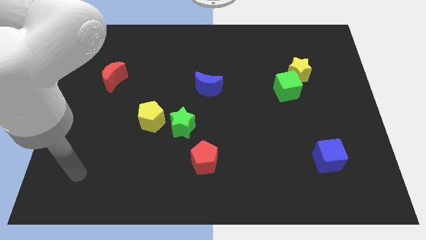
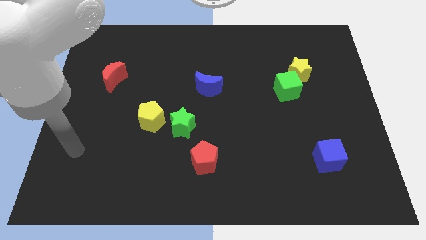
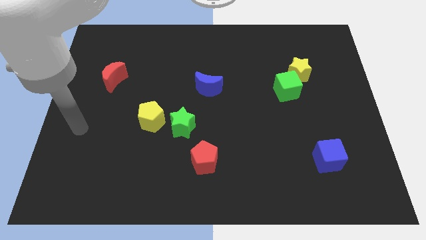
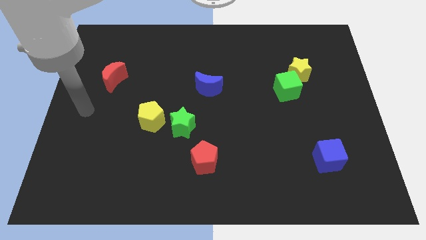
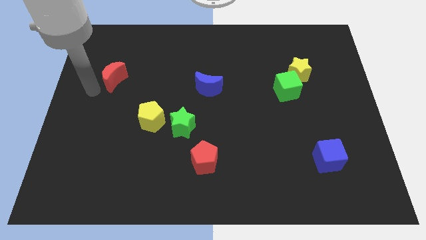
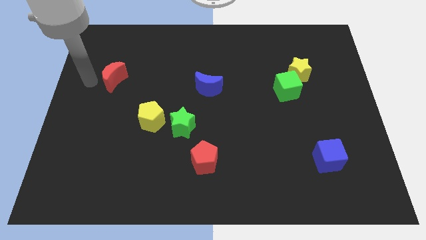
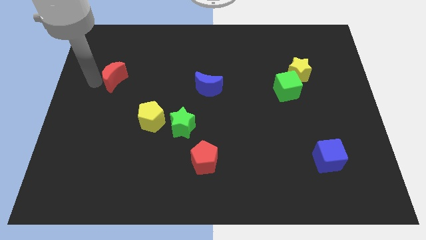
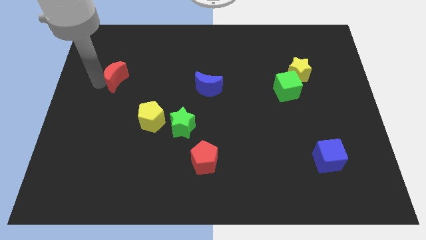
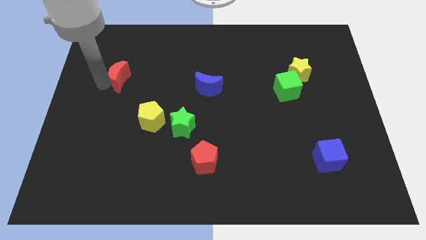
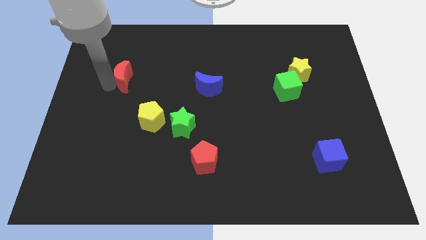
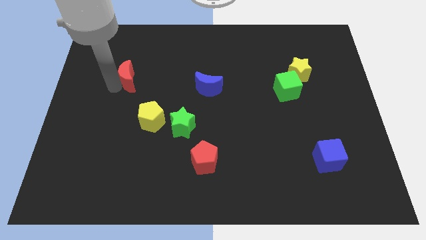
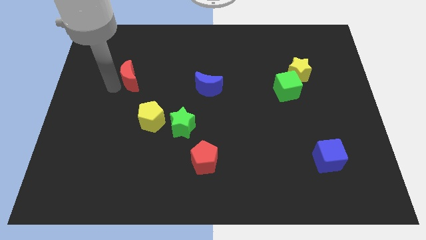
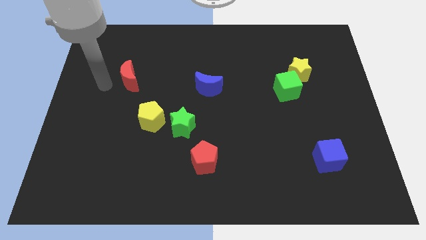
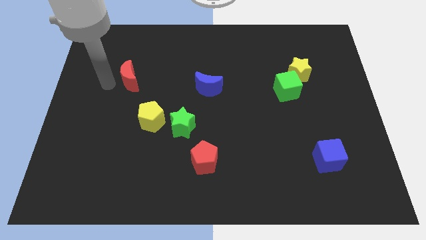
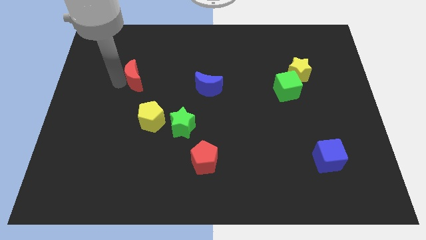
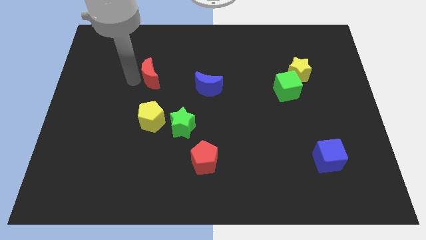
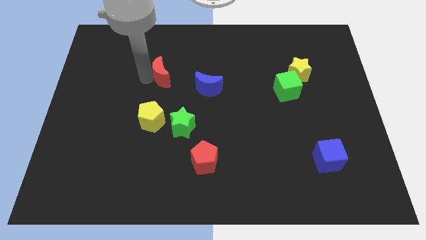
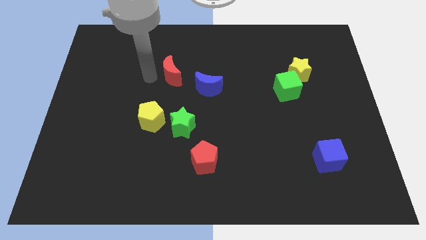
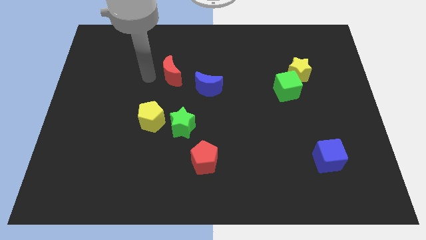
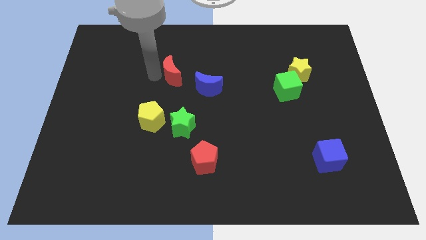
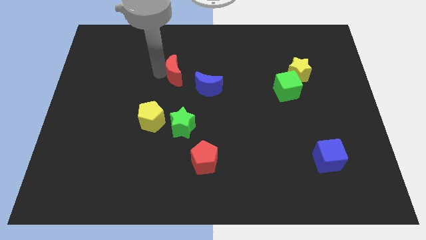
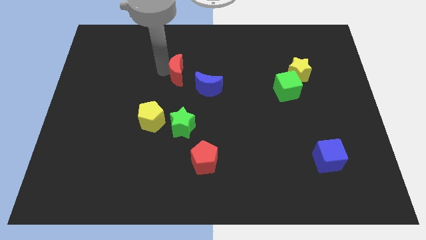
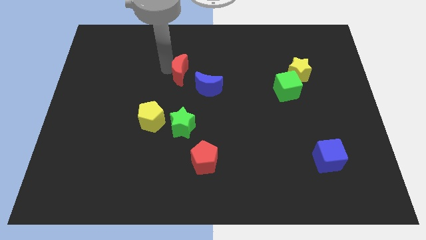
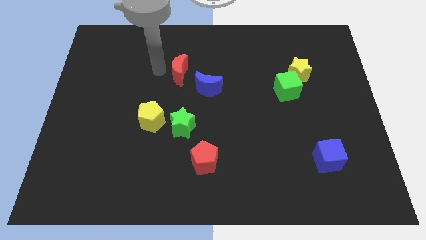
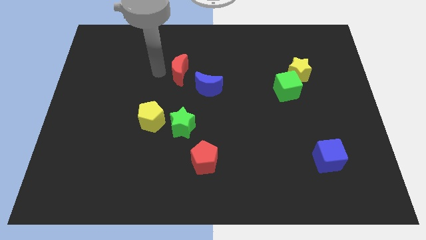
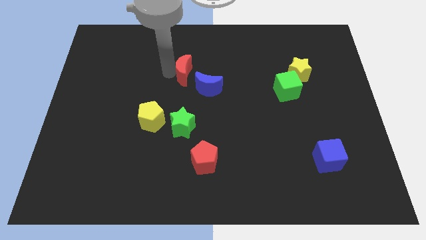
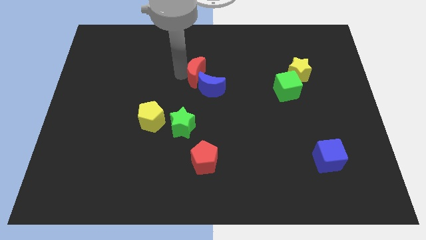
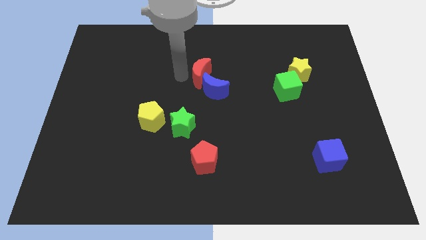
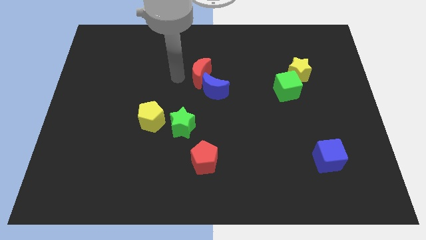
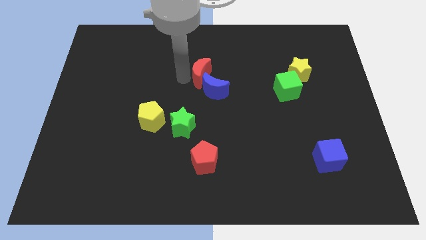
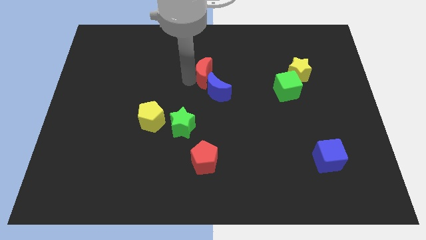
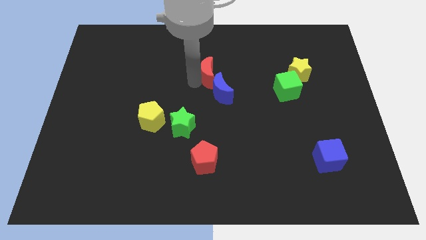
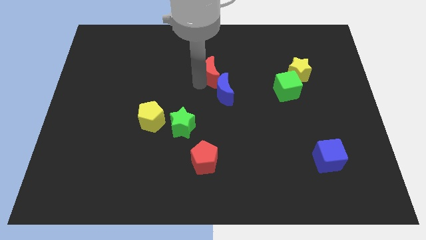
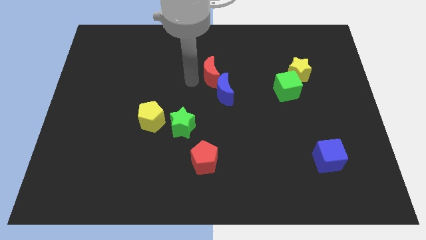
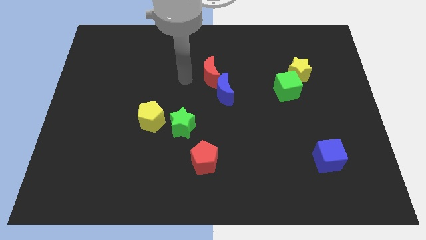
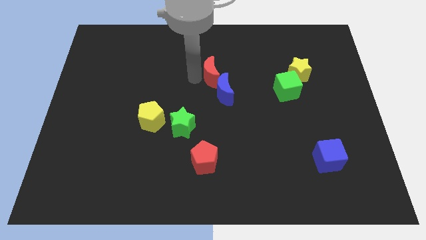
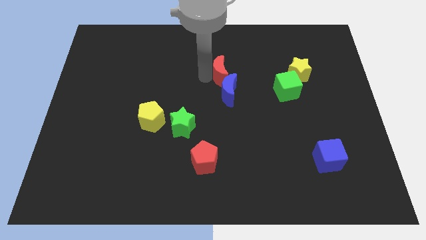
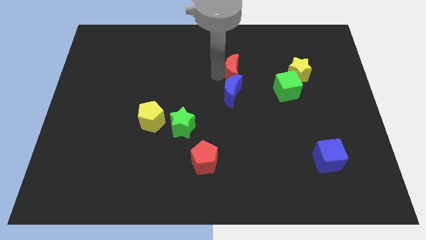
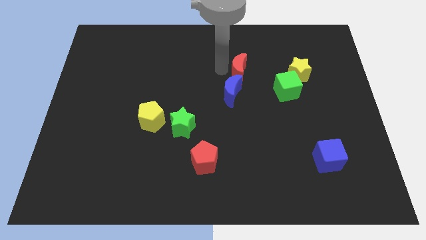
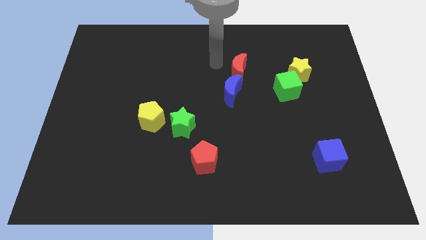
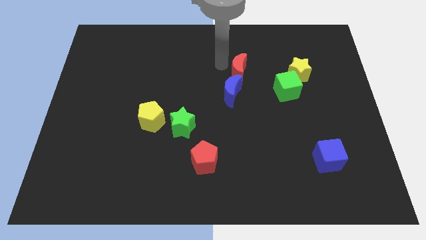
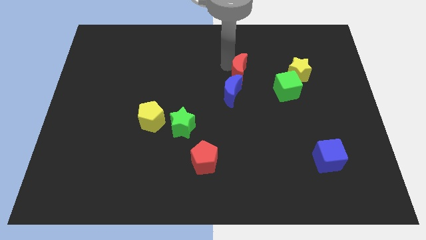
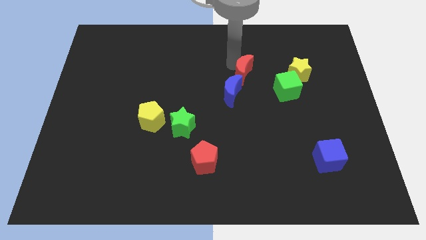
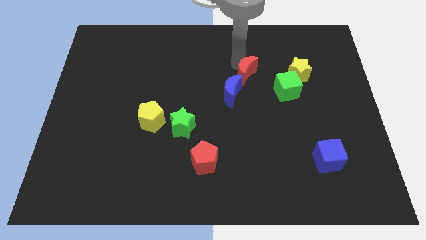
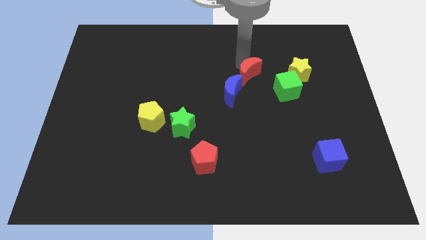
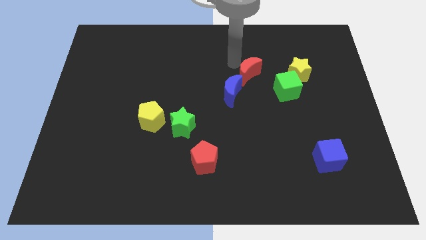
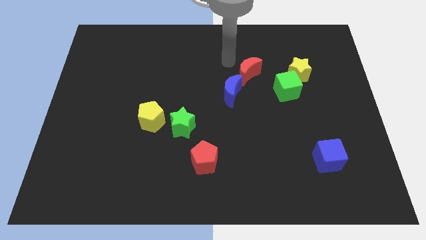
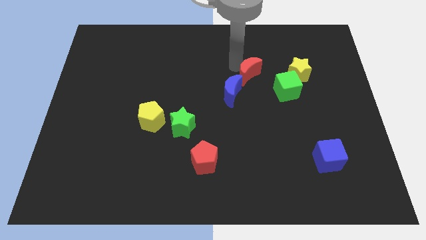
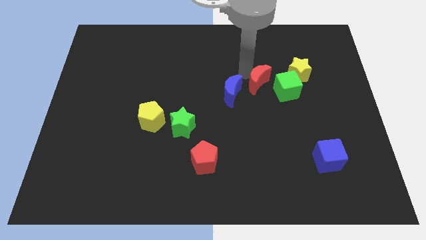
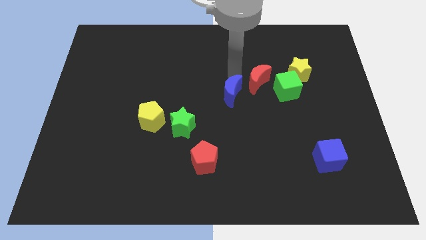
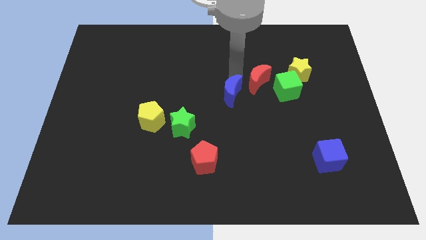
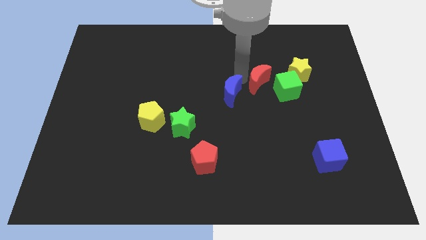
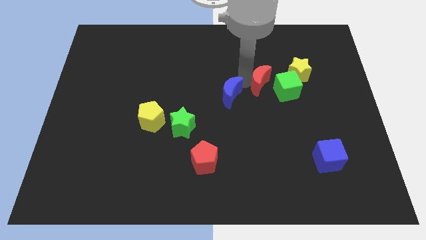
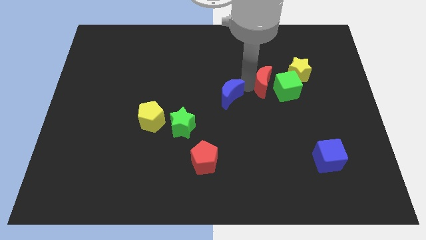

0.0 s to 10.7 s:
slide the red moon next to the green cube

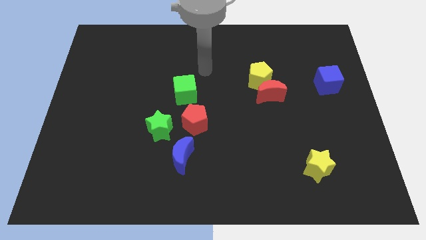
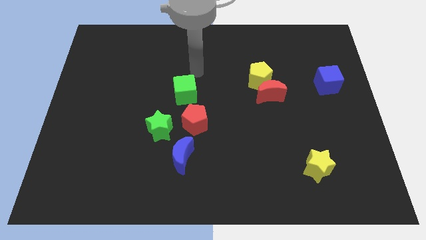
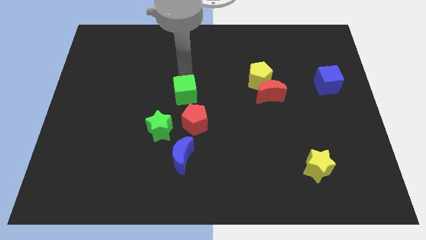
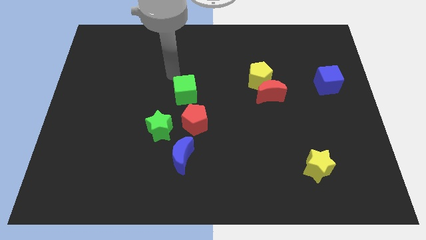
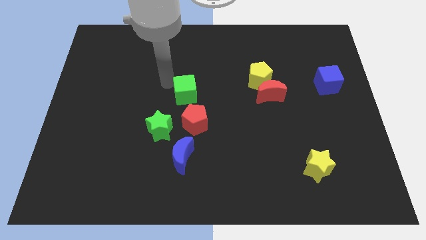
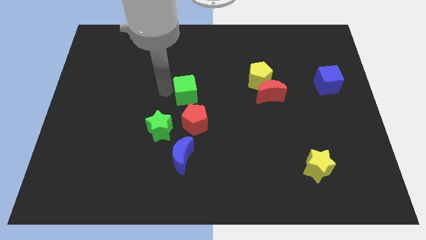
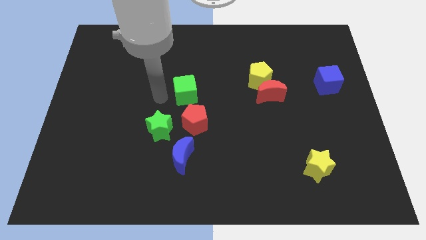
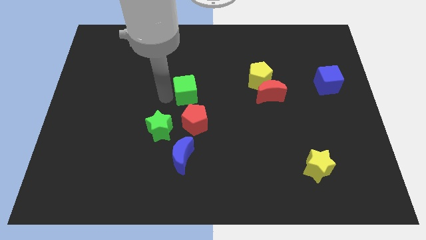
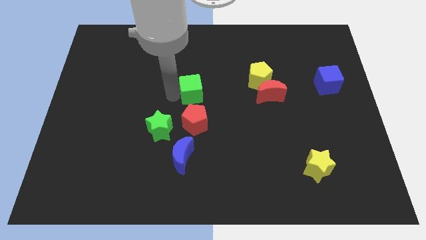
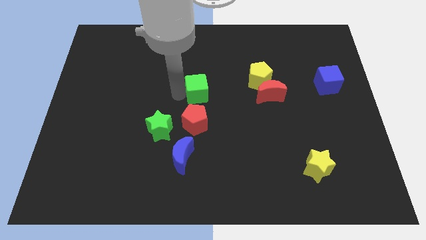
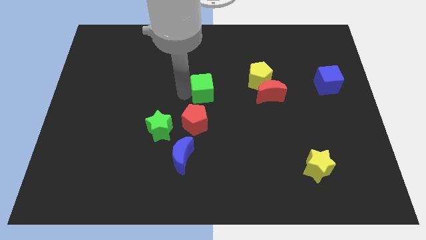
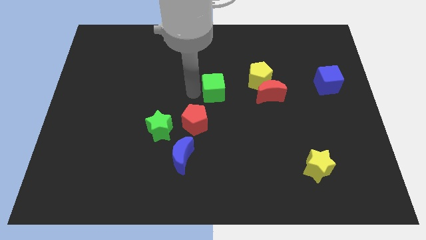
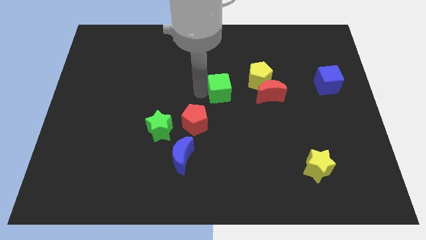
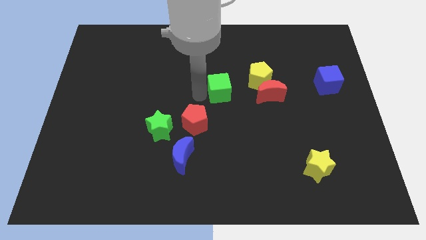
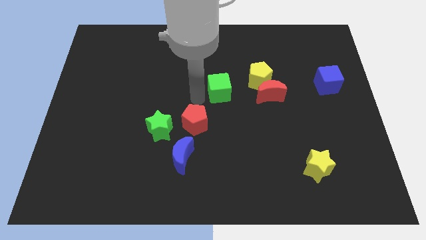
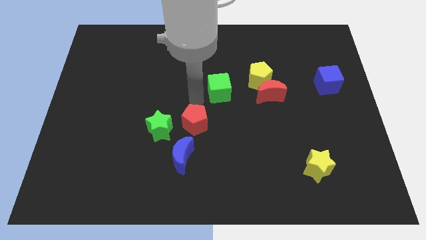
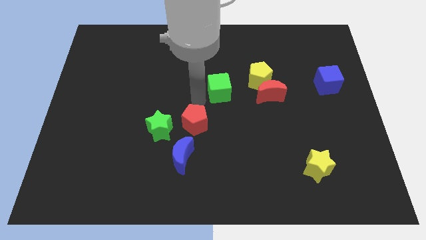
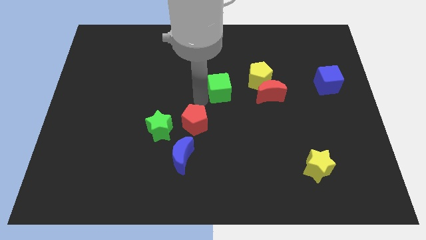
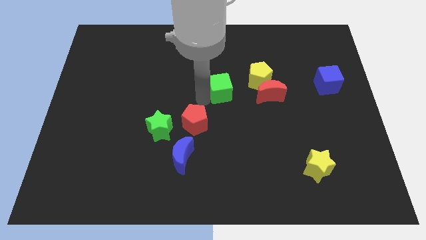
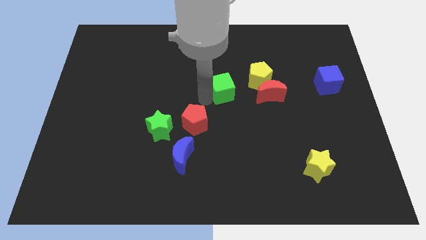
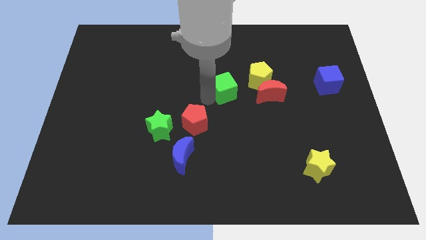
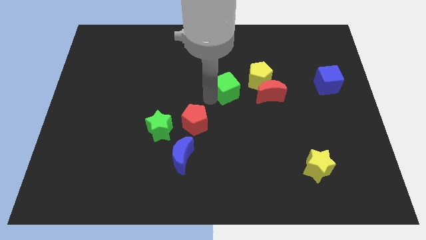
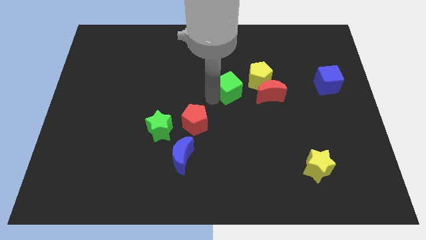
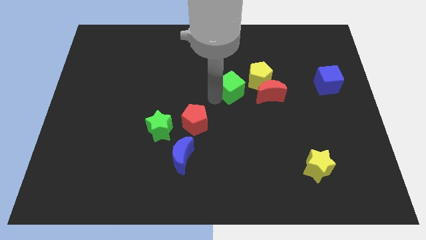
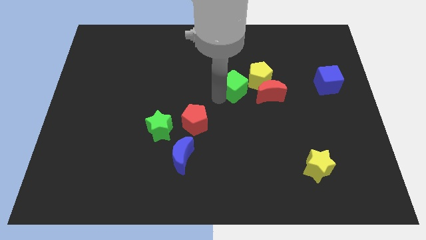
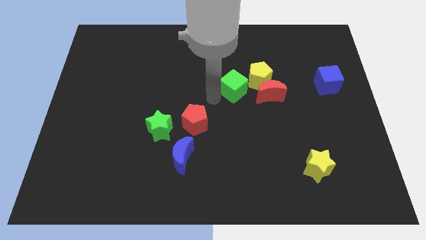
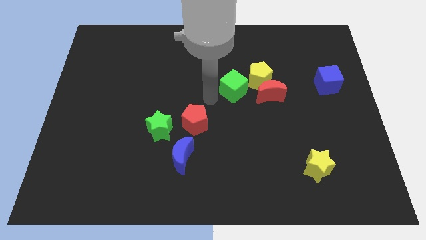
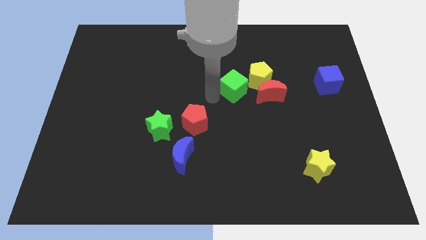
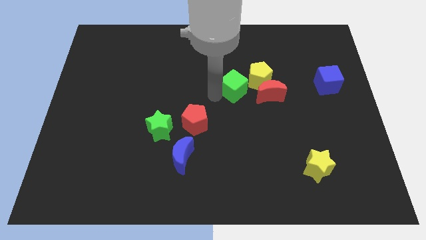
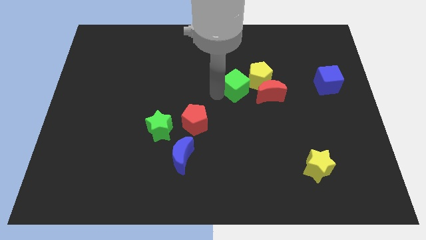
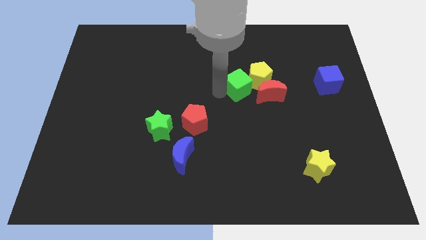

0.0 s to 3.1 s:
slide the green cube close to the yellow pentagon
